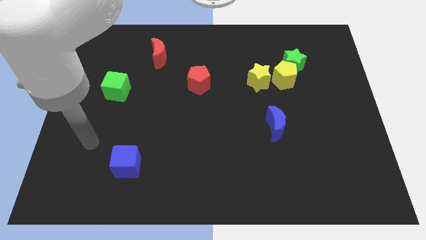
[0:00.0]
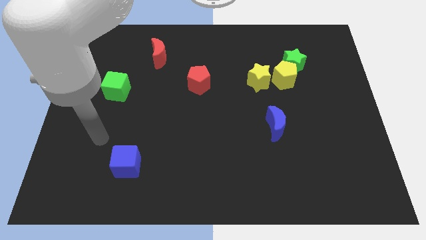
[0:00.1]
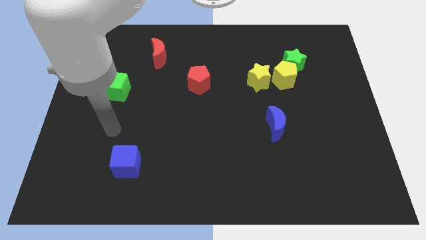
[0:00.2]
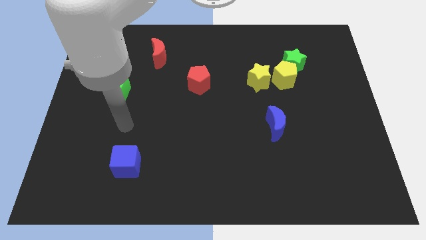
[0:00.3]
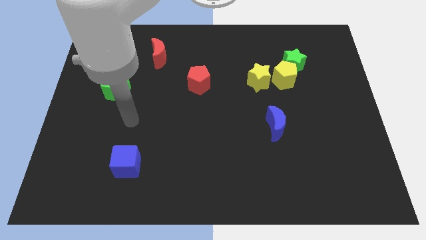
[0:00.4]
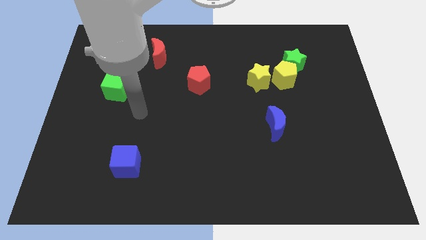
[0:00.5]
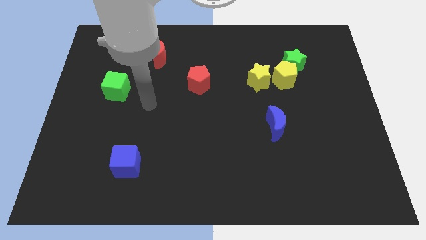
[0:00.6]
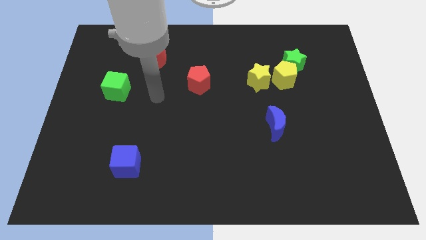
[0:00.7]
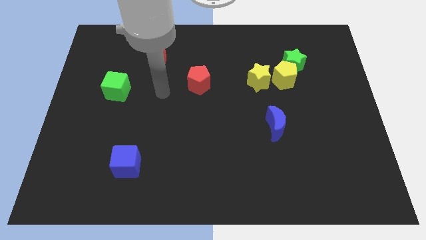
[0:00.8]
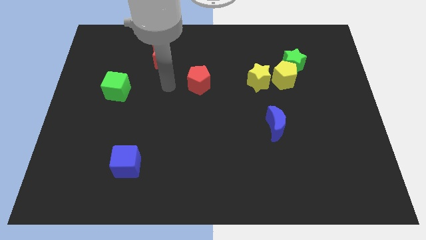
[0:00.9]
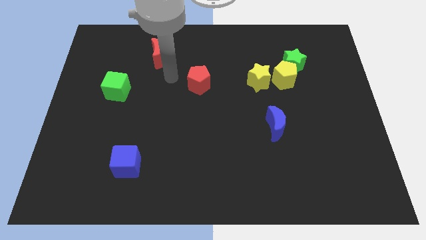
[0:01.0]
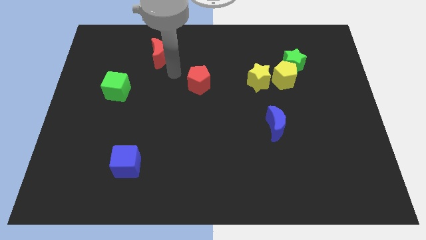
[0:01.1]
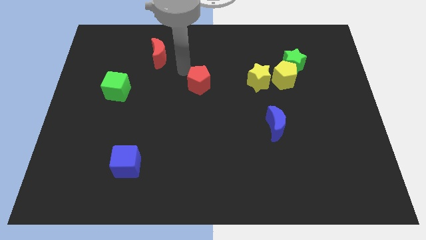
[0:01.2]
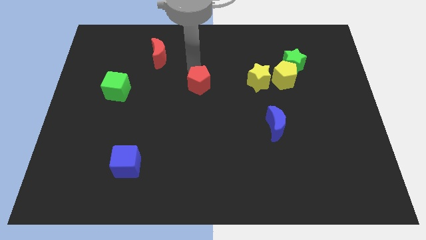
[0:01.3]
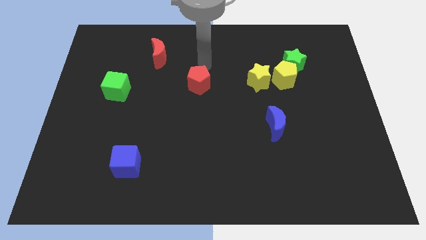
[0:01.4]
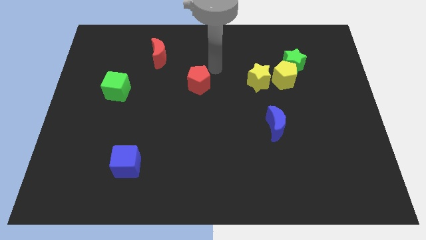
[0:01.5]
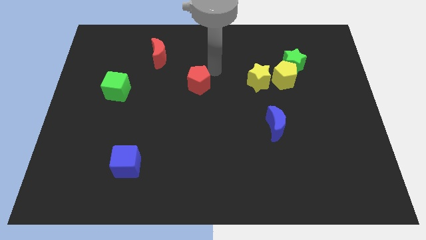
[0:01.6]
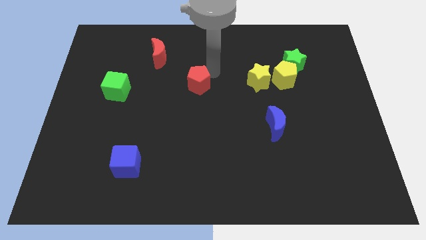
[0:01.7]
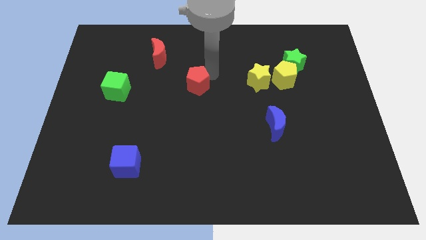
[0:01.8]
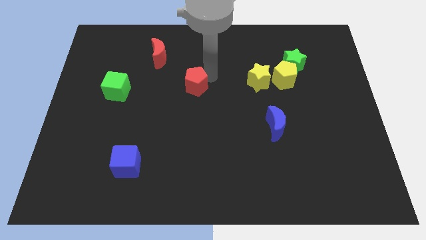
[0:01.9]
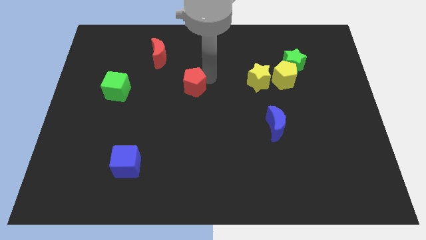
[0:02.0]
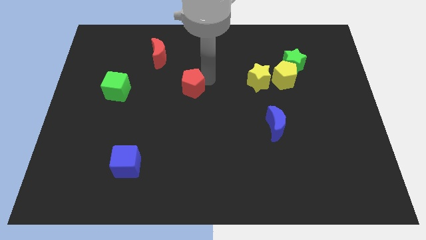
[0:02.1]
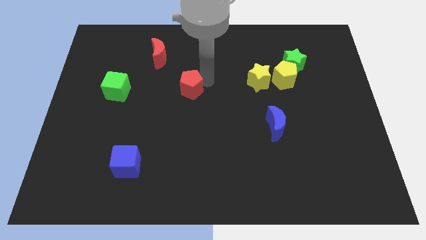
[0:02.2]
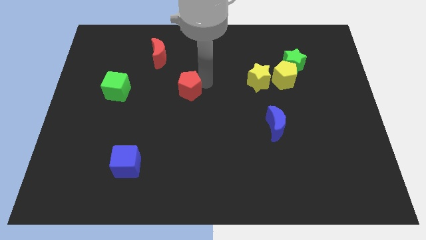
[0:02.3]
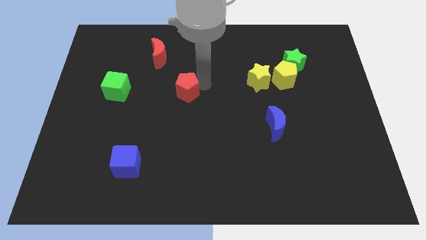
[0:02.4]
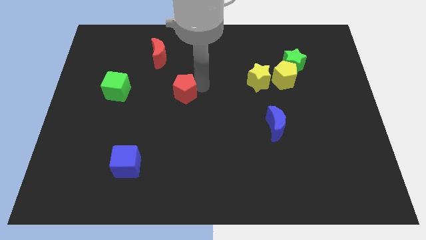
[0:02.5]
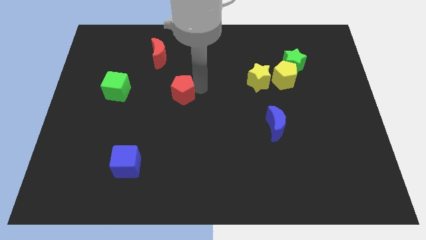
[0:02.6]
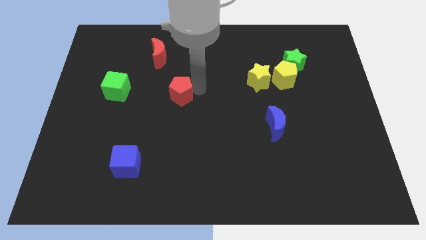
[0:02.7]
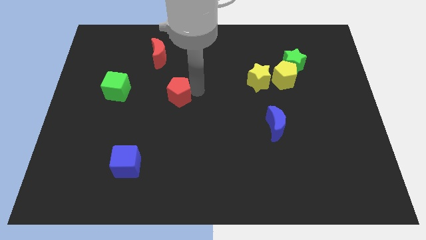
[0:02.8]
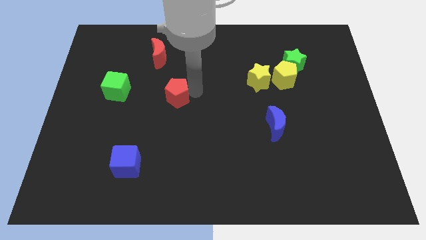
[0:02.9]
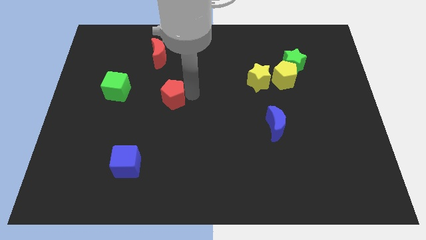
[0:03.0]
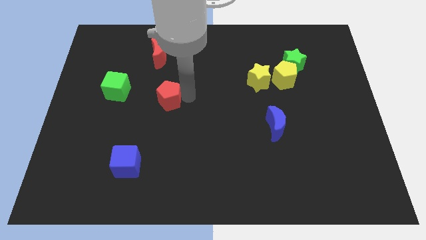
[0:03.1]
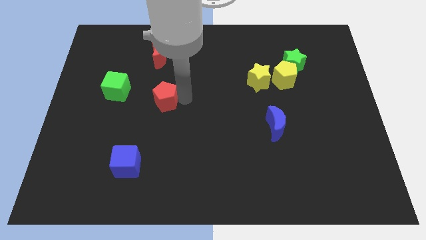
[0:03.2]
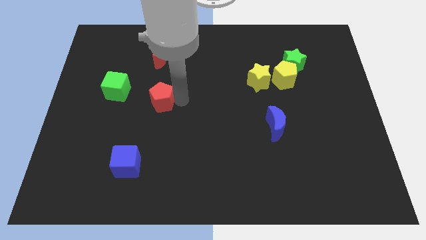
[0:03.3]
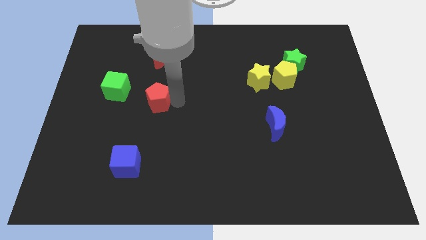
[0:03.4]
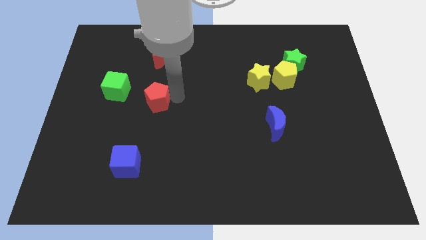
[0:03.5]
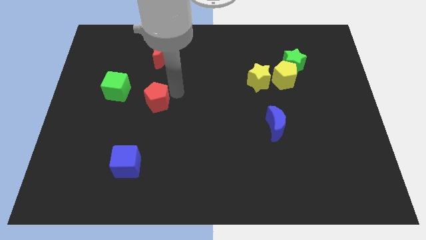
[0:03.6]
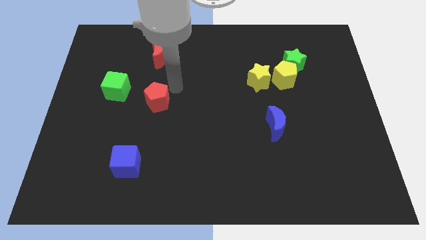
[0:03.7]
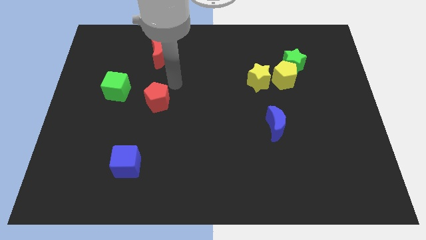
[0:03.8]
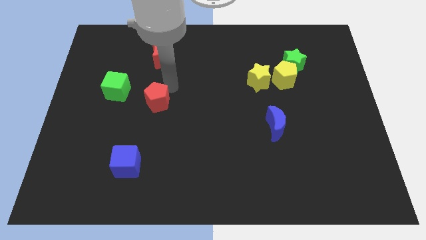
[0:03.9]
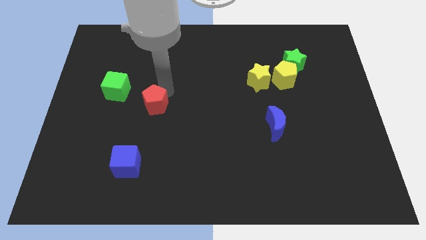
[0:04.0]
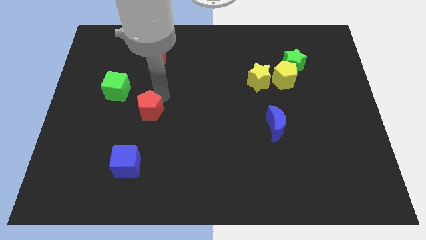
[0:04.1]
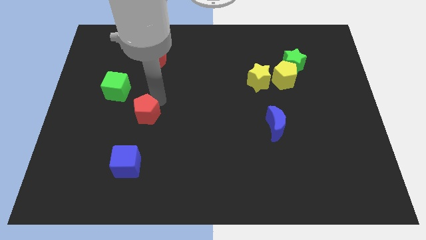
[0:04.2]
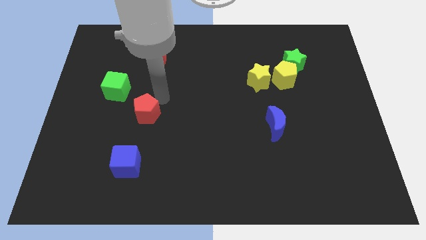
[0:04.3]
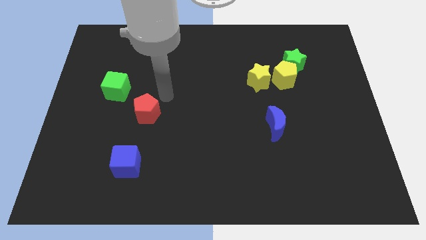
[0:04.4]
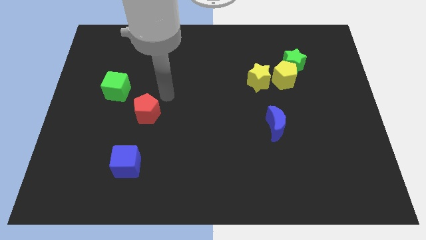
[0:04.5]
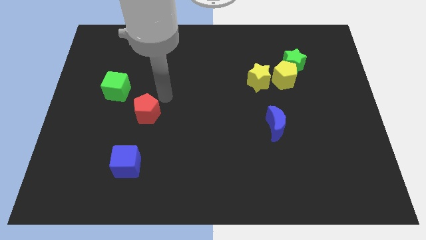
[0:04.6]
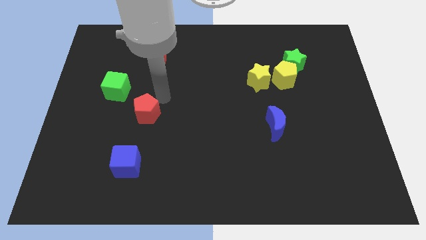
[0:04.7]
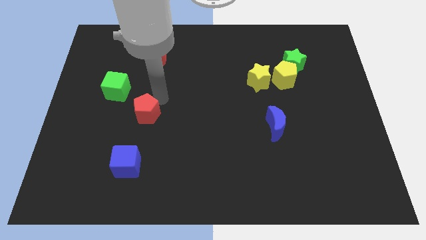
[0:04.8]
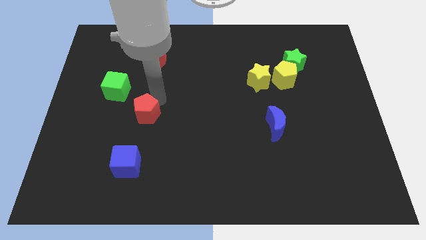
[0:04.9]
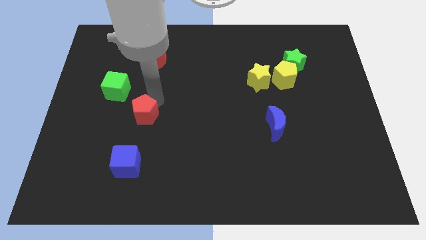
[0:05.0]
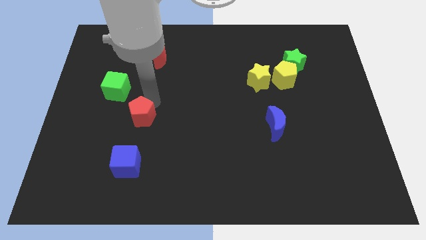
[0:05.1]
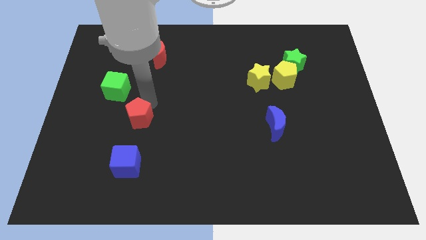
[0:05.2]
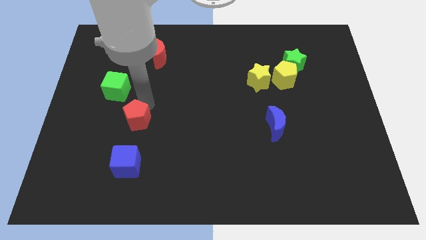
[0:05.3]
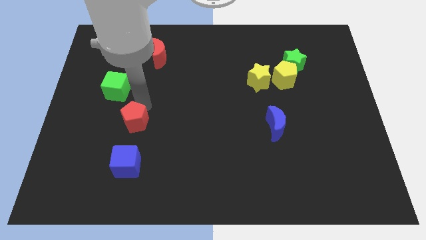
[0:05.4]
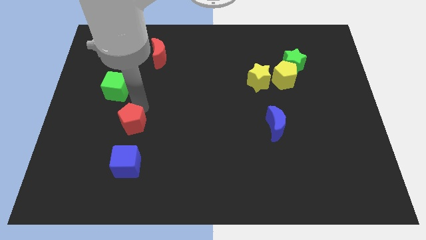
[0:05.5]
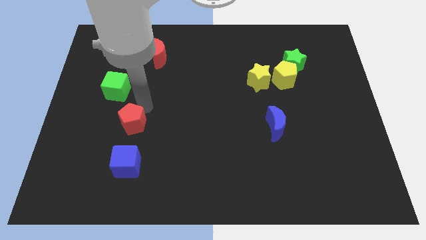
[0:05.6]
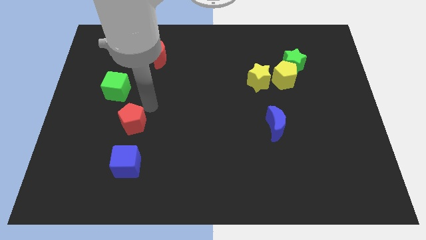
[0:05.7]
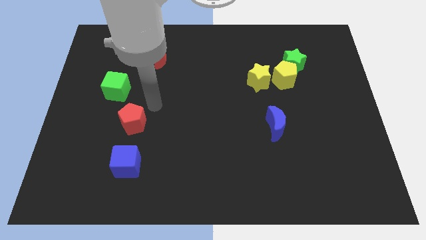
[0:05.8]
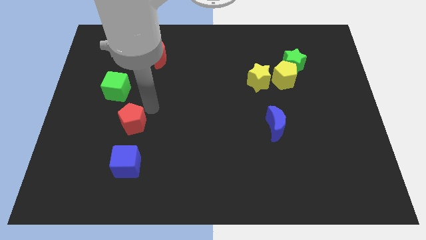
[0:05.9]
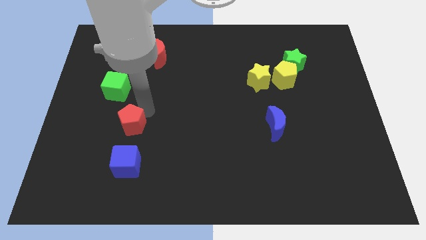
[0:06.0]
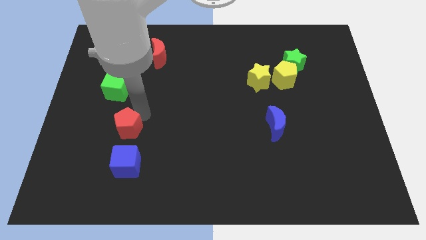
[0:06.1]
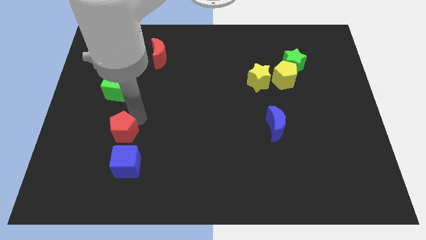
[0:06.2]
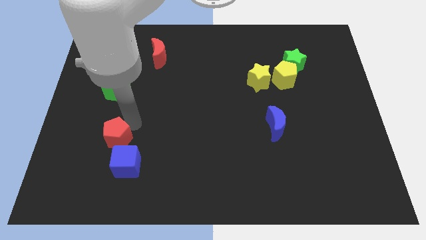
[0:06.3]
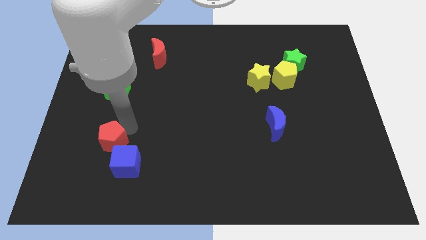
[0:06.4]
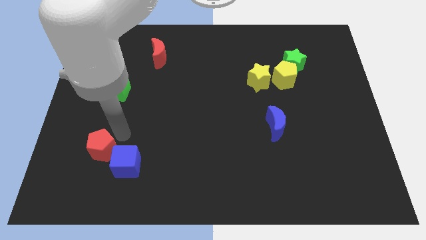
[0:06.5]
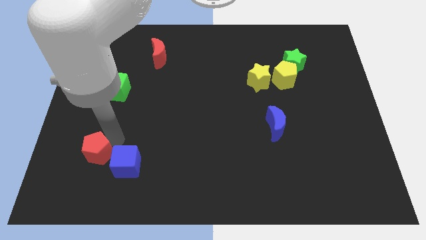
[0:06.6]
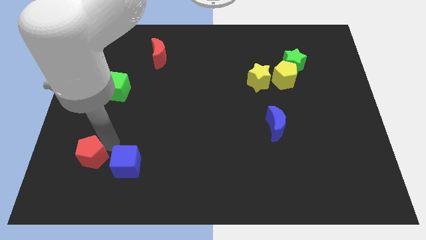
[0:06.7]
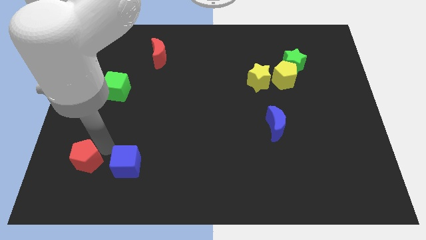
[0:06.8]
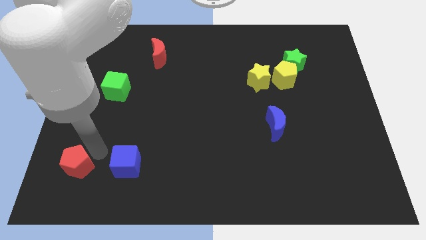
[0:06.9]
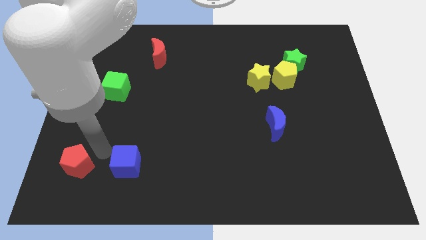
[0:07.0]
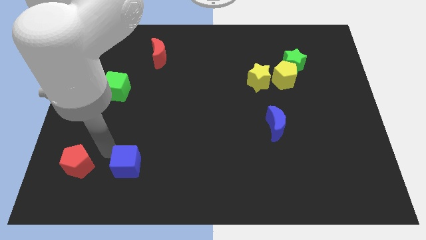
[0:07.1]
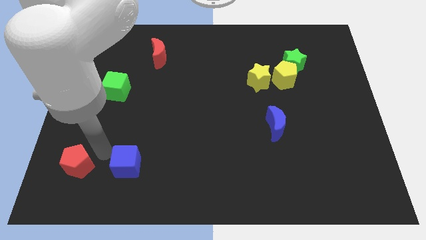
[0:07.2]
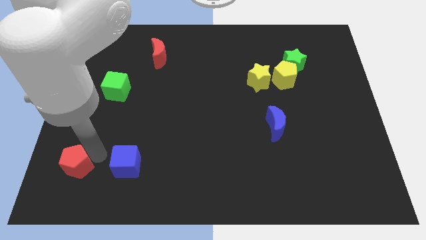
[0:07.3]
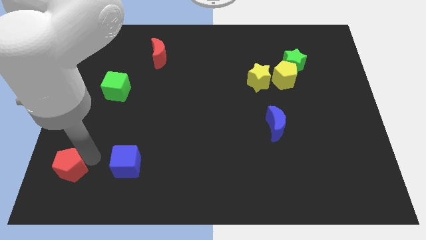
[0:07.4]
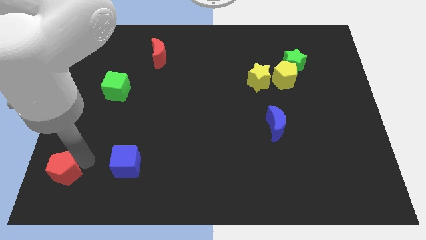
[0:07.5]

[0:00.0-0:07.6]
slide the red pentagon to the lower left corner
